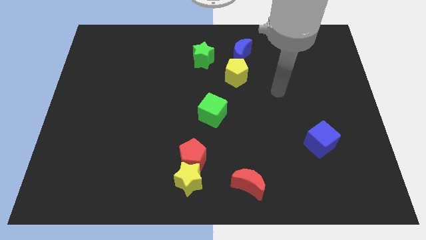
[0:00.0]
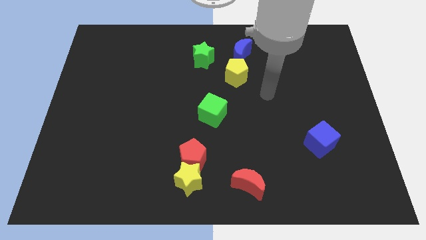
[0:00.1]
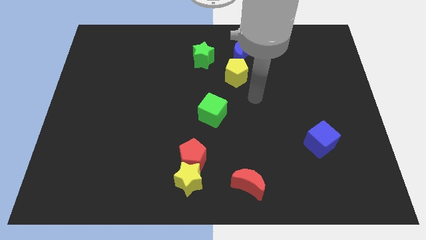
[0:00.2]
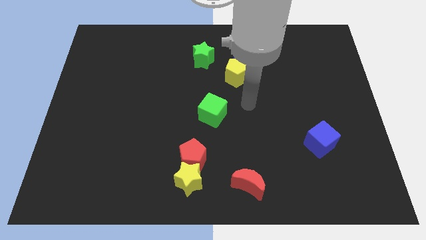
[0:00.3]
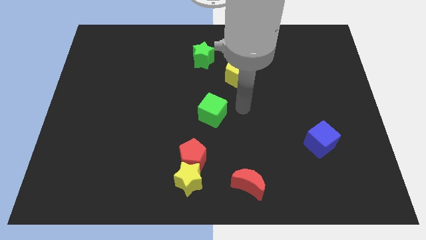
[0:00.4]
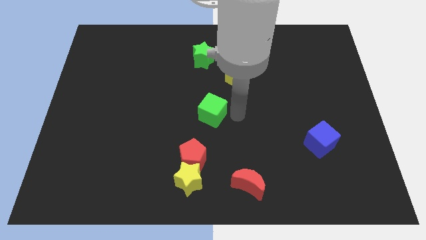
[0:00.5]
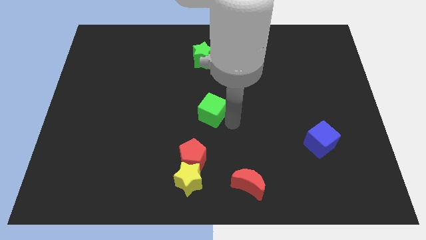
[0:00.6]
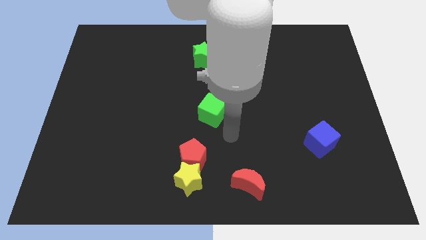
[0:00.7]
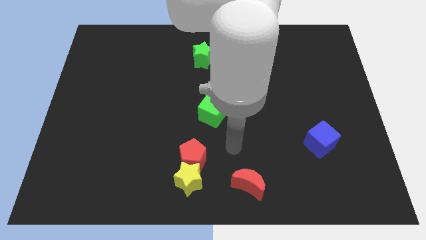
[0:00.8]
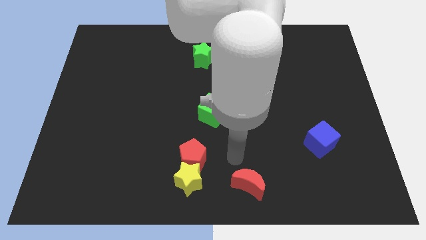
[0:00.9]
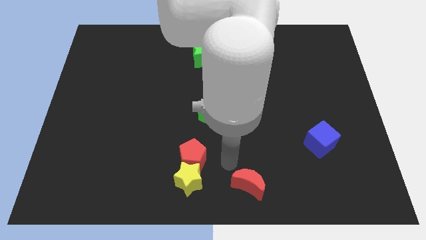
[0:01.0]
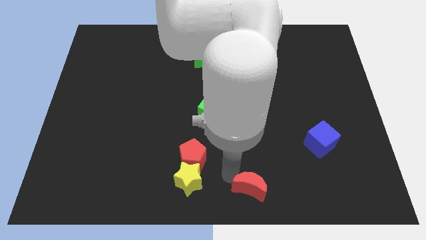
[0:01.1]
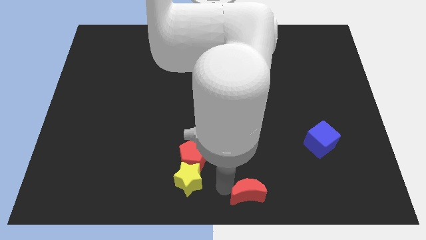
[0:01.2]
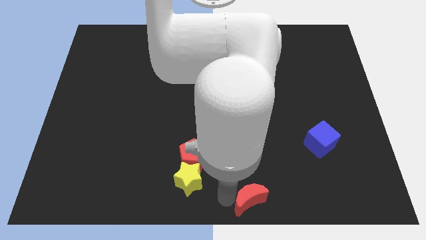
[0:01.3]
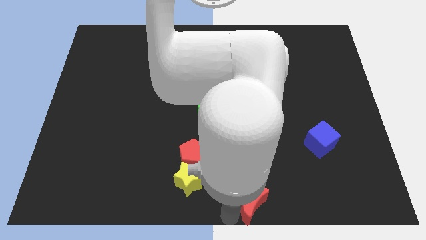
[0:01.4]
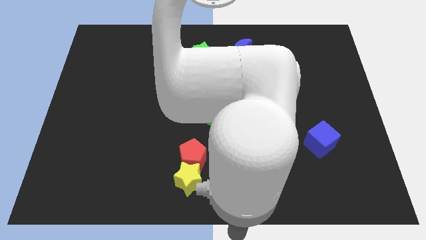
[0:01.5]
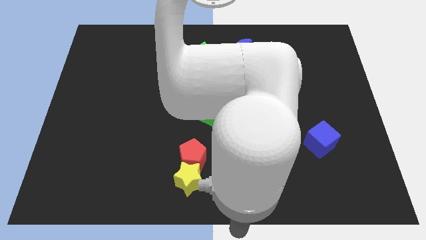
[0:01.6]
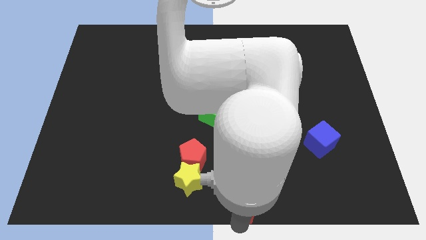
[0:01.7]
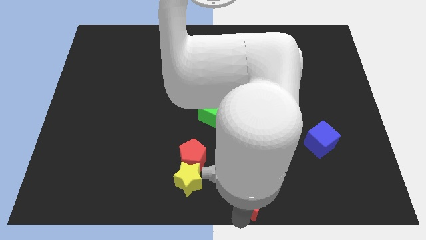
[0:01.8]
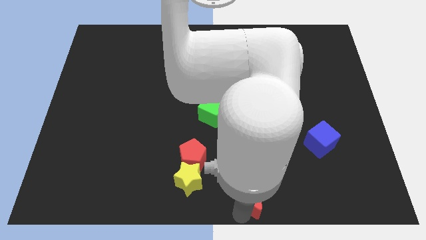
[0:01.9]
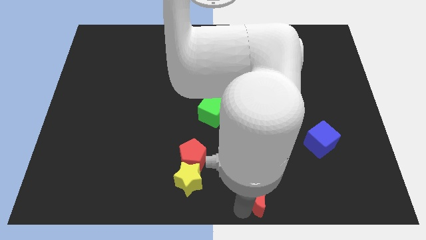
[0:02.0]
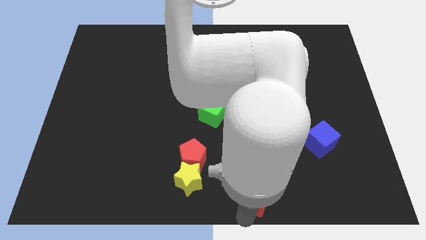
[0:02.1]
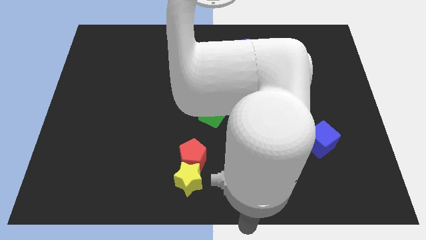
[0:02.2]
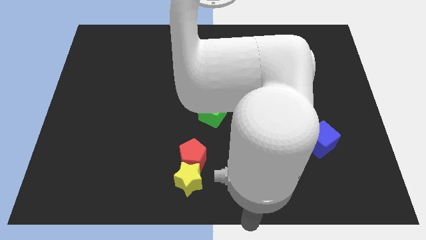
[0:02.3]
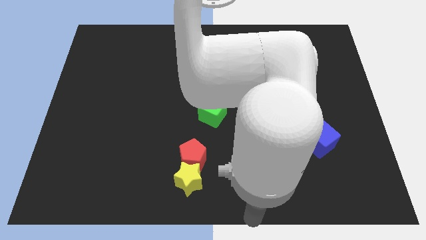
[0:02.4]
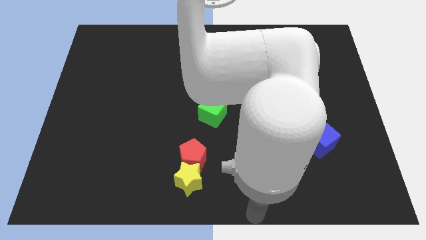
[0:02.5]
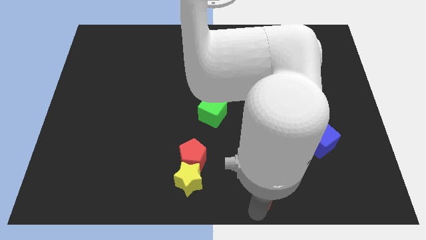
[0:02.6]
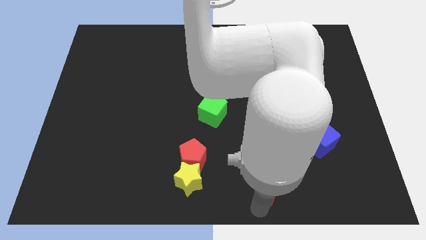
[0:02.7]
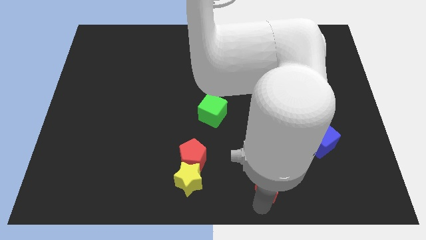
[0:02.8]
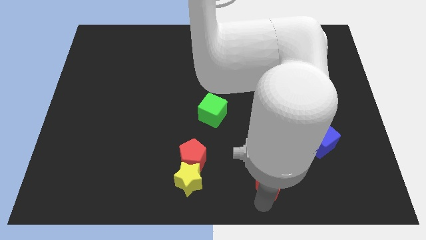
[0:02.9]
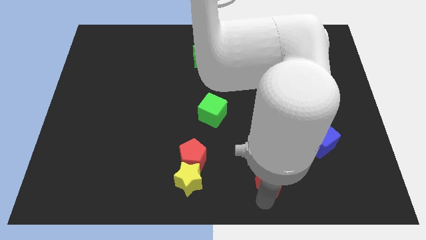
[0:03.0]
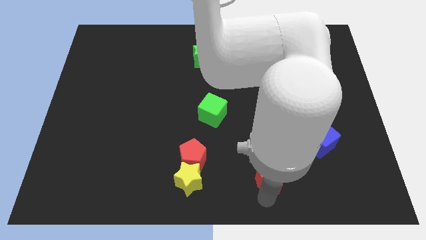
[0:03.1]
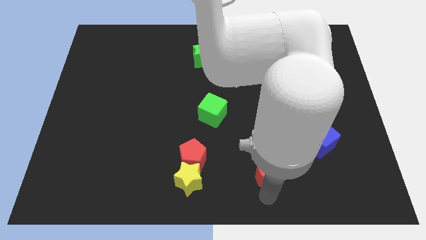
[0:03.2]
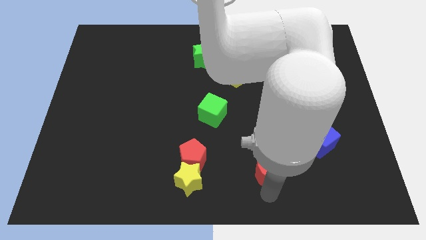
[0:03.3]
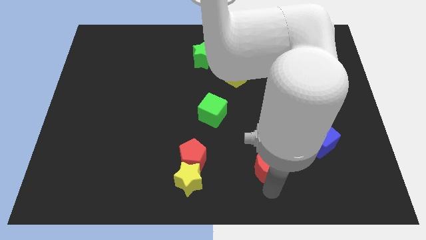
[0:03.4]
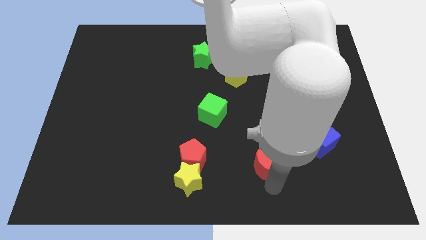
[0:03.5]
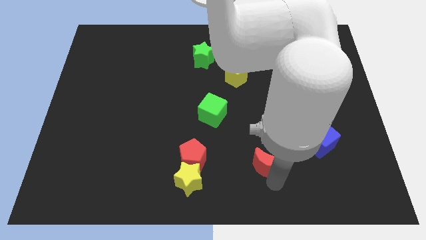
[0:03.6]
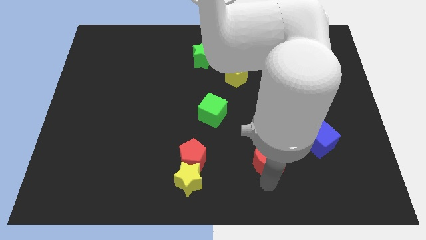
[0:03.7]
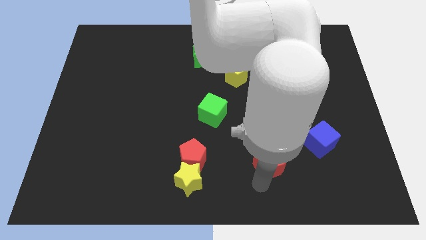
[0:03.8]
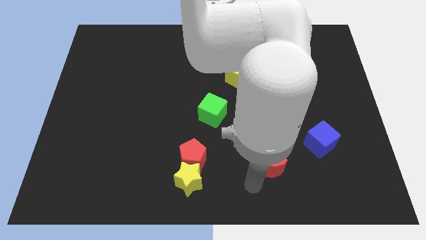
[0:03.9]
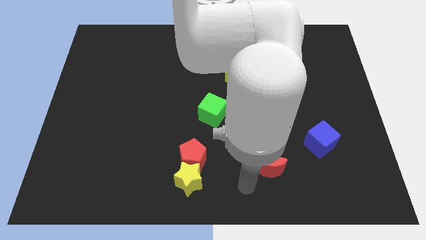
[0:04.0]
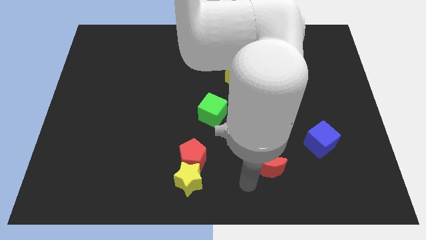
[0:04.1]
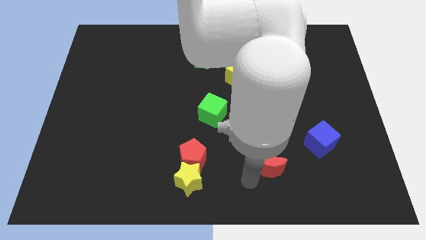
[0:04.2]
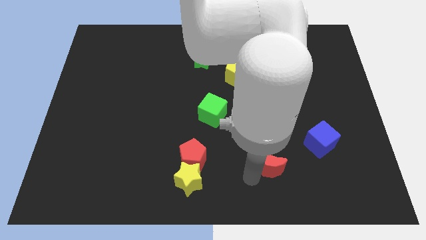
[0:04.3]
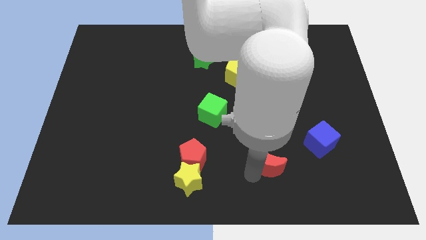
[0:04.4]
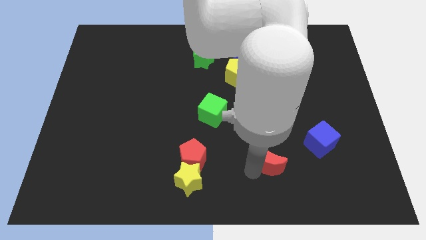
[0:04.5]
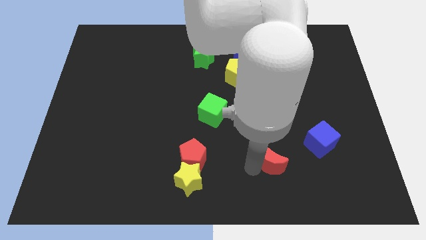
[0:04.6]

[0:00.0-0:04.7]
push the red moon upwards and to the right diagonally a little bit

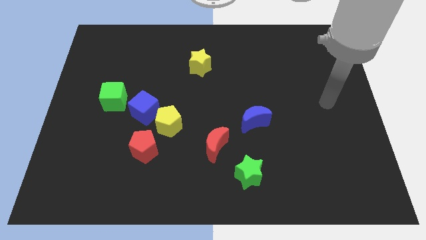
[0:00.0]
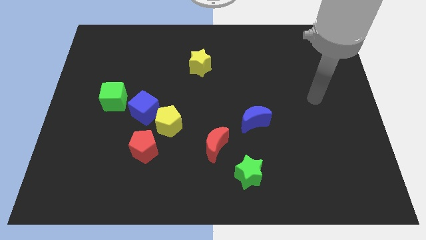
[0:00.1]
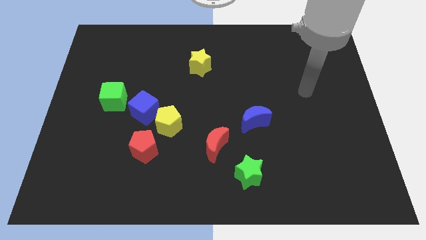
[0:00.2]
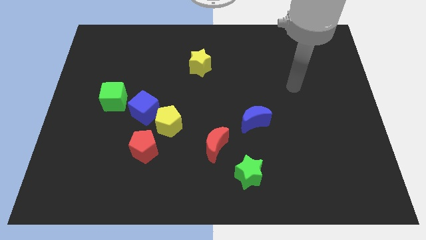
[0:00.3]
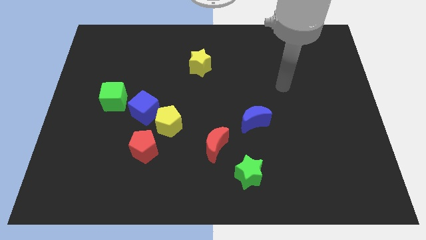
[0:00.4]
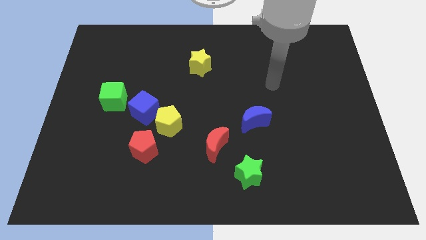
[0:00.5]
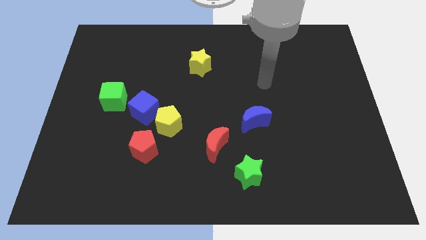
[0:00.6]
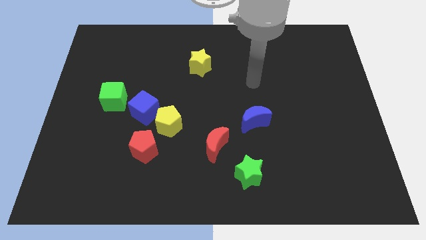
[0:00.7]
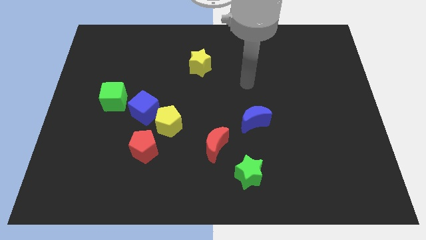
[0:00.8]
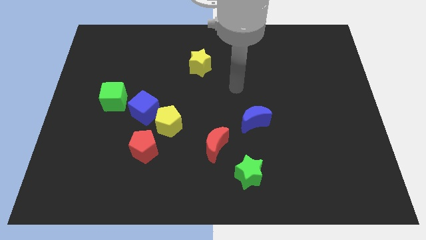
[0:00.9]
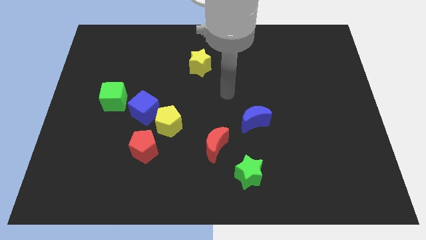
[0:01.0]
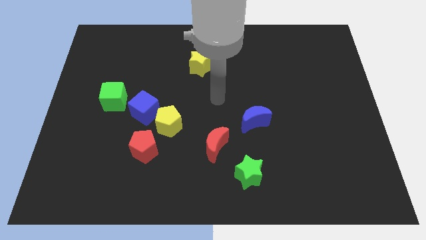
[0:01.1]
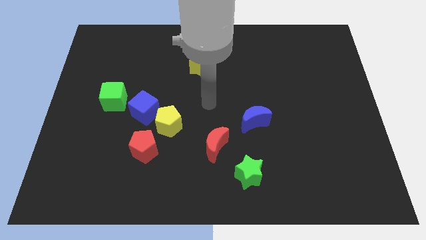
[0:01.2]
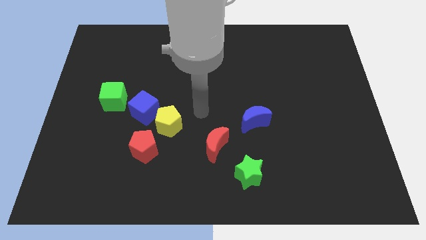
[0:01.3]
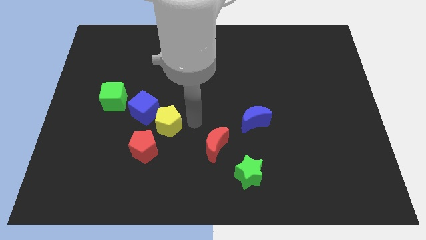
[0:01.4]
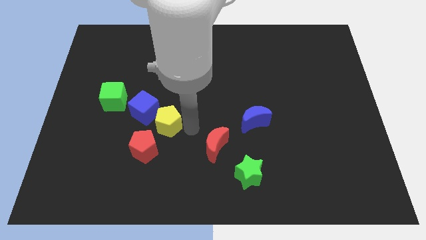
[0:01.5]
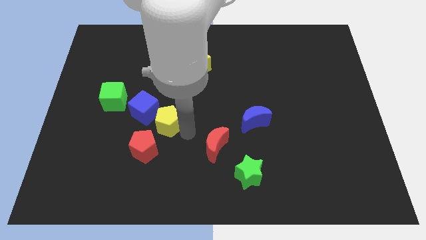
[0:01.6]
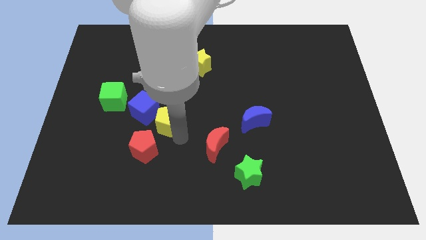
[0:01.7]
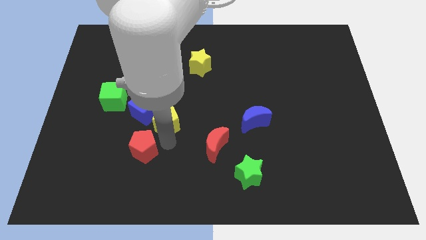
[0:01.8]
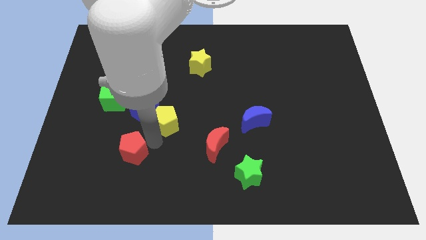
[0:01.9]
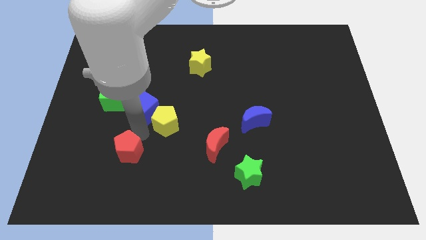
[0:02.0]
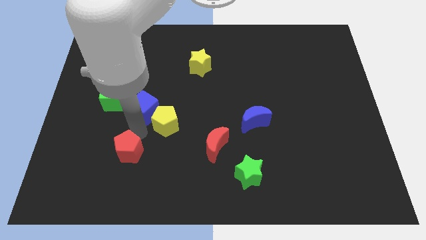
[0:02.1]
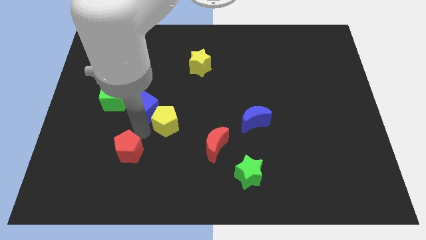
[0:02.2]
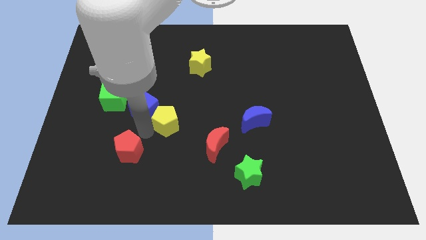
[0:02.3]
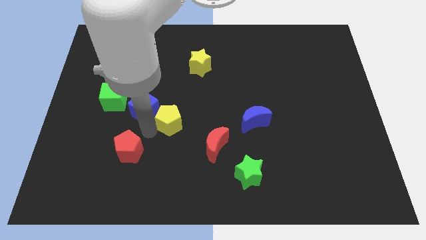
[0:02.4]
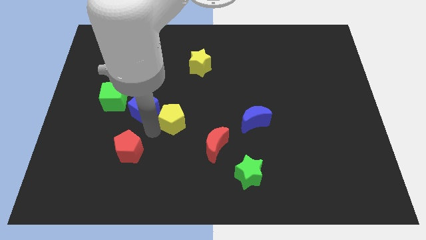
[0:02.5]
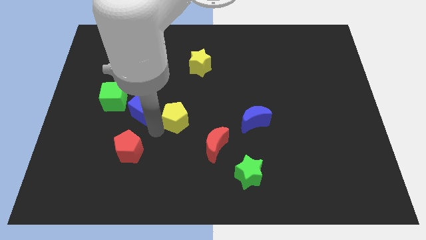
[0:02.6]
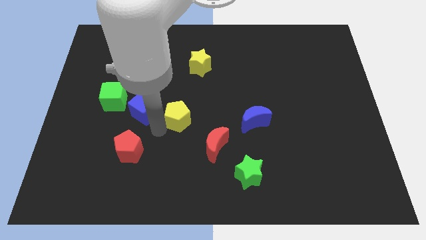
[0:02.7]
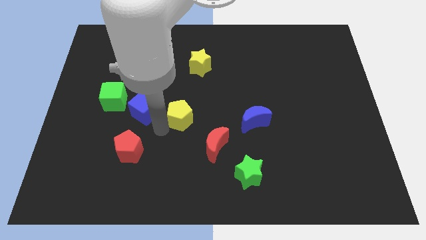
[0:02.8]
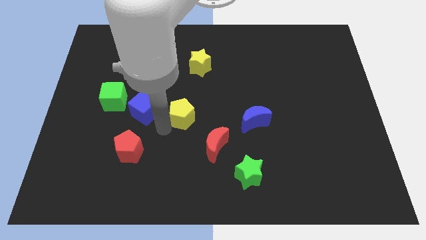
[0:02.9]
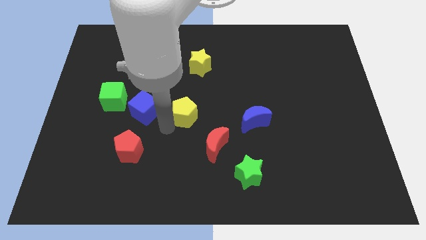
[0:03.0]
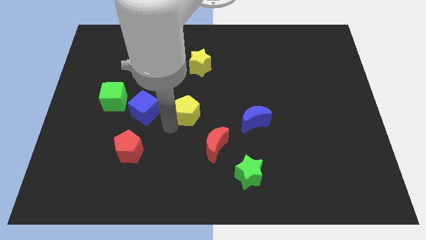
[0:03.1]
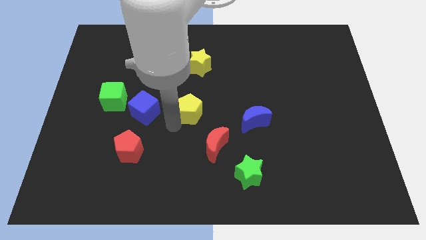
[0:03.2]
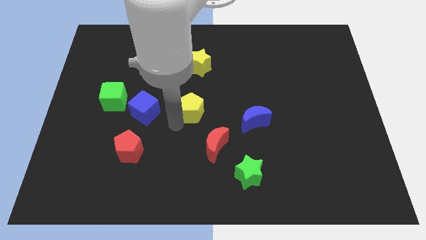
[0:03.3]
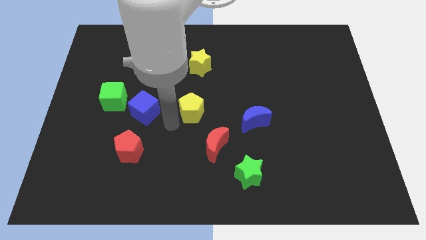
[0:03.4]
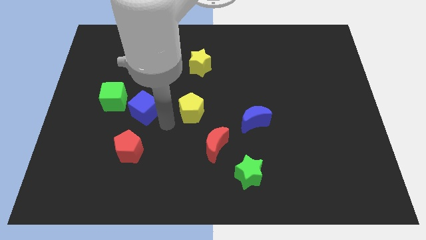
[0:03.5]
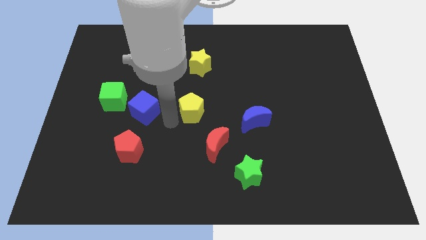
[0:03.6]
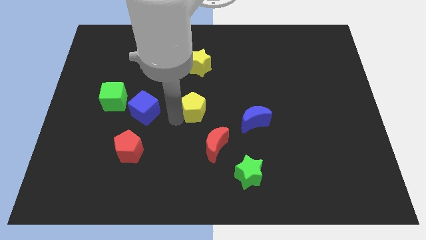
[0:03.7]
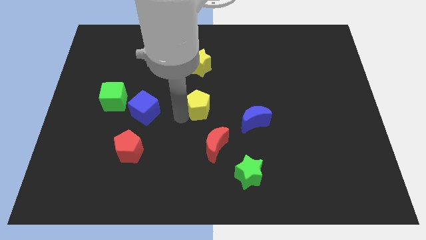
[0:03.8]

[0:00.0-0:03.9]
slide the yellow pentagon a bit up and then right
